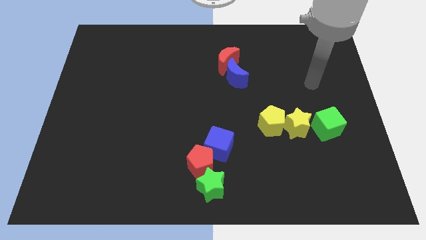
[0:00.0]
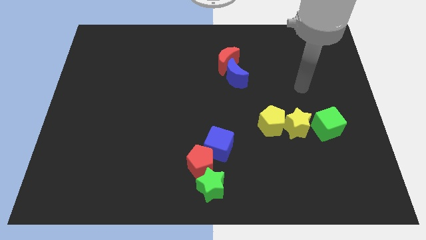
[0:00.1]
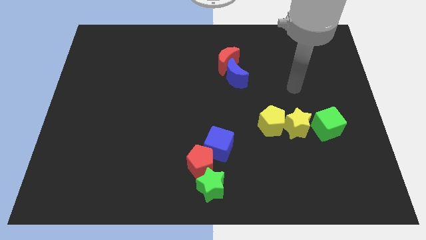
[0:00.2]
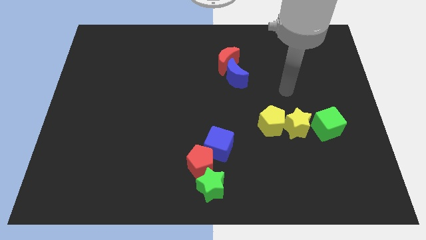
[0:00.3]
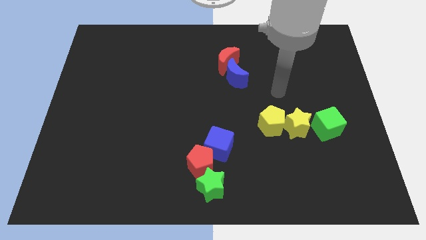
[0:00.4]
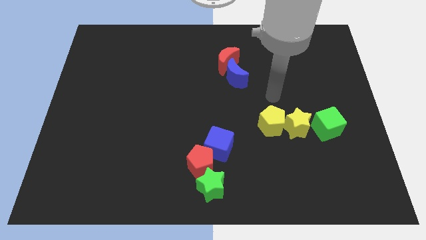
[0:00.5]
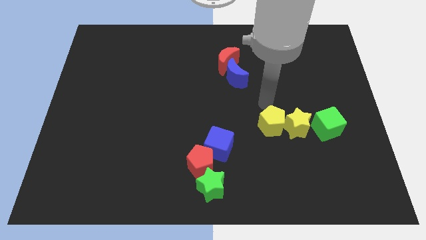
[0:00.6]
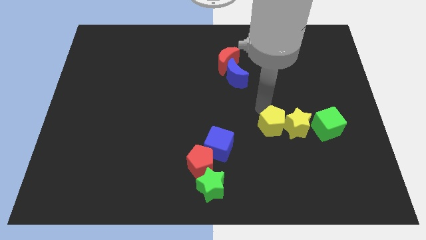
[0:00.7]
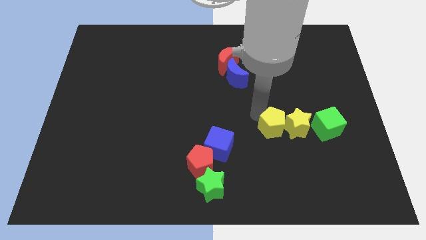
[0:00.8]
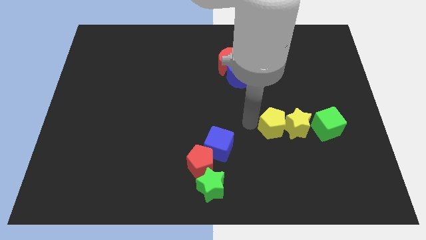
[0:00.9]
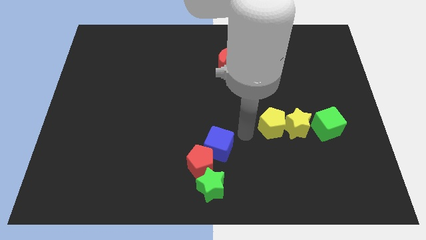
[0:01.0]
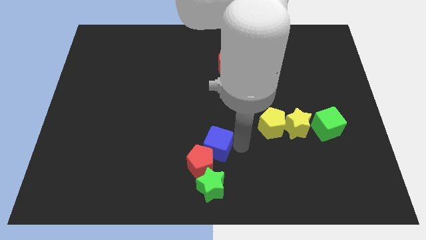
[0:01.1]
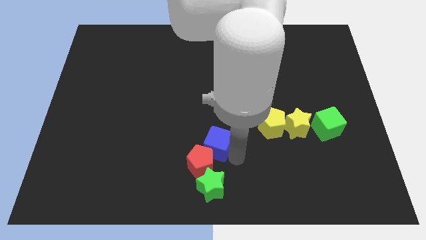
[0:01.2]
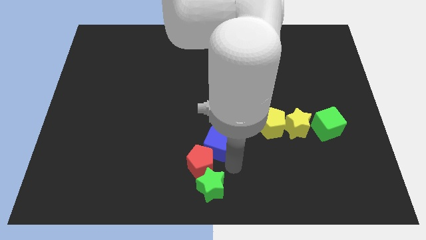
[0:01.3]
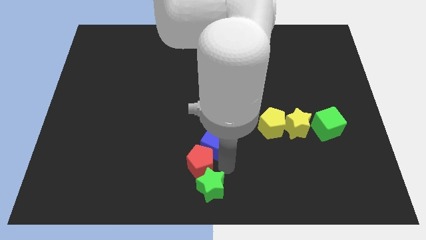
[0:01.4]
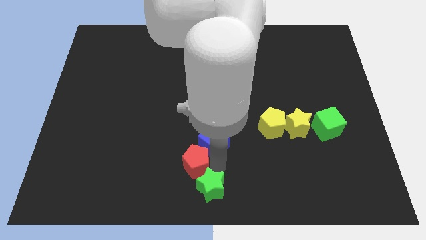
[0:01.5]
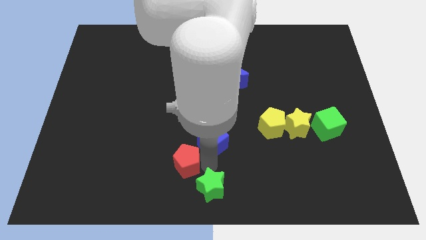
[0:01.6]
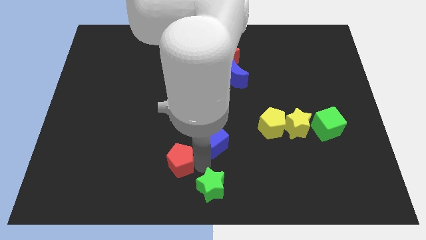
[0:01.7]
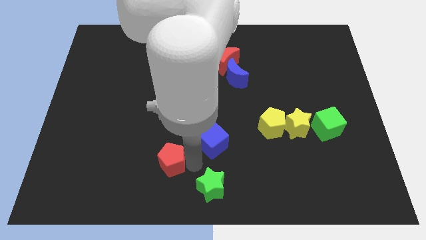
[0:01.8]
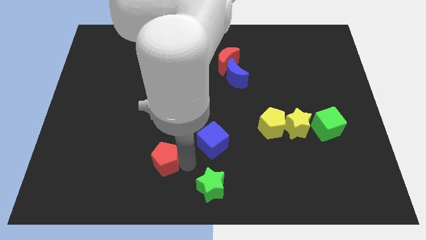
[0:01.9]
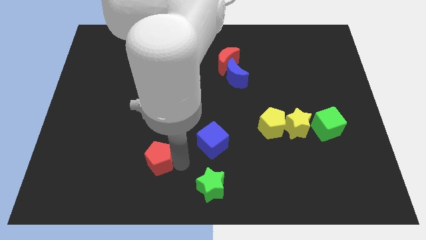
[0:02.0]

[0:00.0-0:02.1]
pull the red pentagon apart from the green star and blue cube

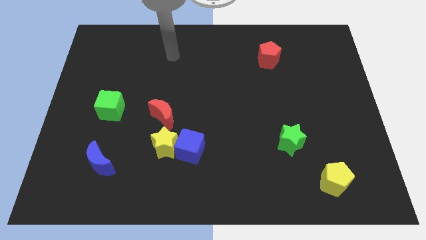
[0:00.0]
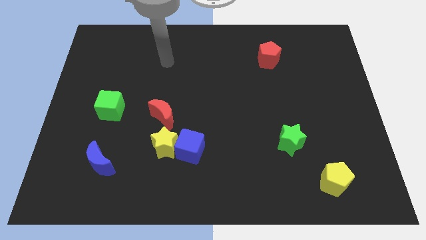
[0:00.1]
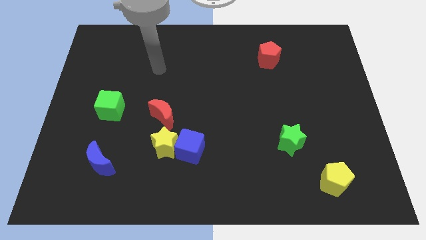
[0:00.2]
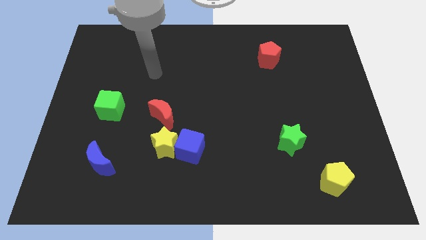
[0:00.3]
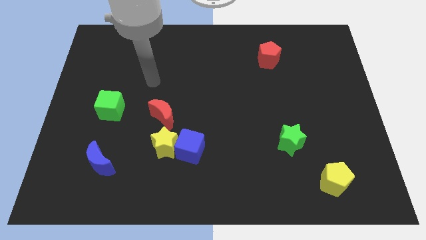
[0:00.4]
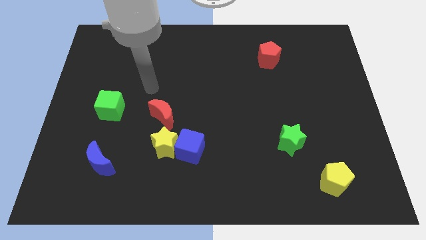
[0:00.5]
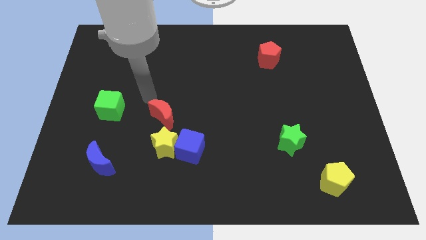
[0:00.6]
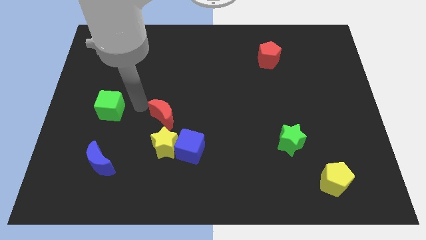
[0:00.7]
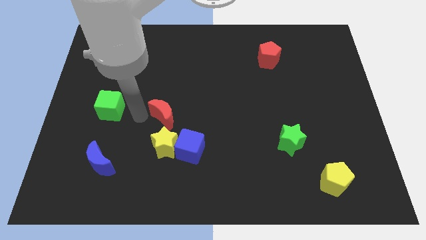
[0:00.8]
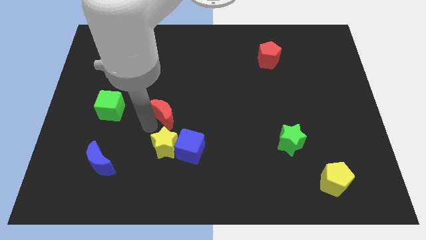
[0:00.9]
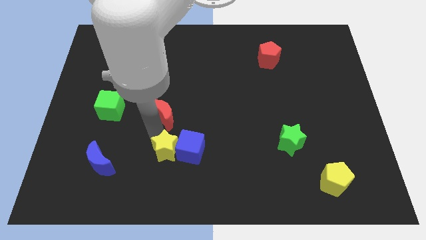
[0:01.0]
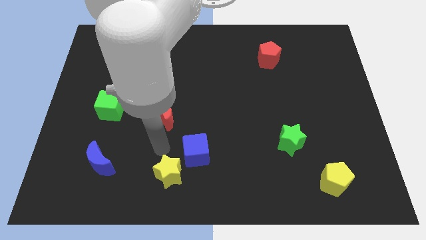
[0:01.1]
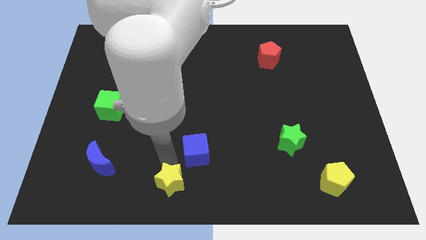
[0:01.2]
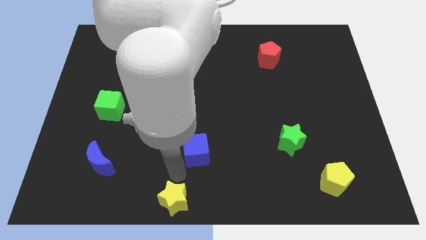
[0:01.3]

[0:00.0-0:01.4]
move the blue cube away from the yellow star

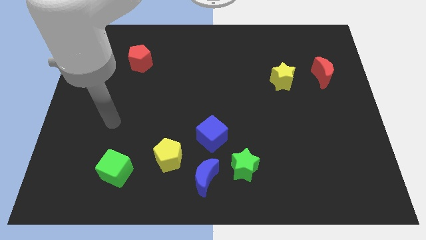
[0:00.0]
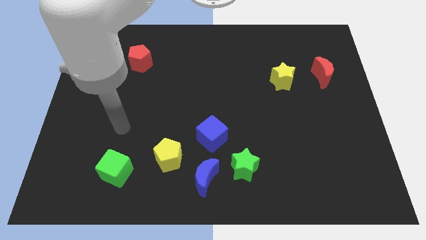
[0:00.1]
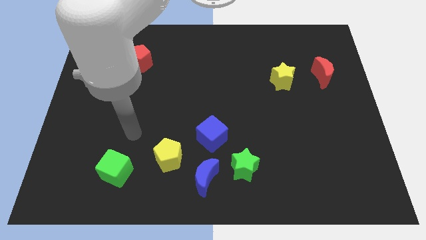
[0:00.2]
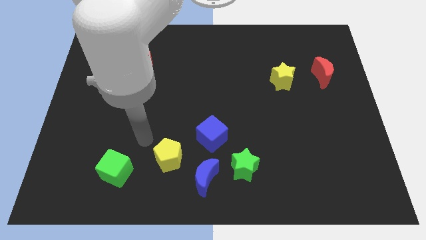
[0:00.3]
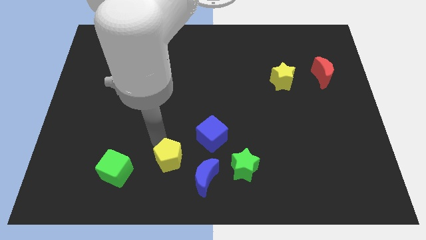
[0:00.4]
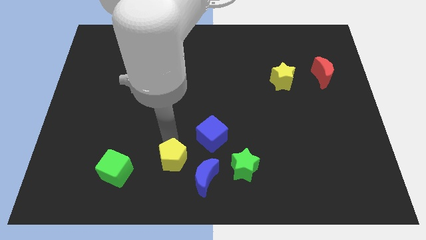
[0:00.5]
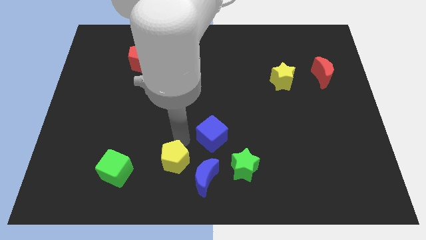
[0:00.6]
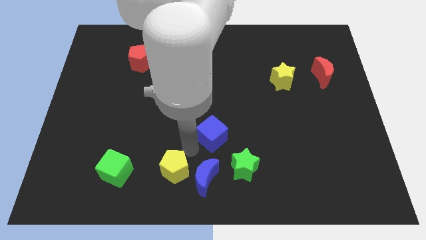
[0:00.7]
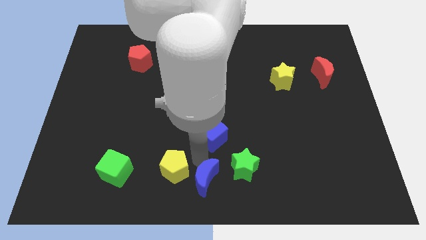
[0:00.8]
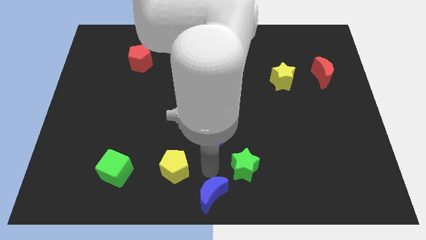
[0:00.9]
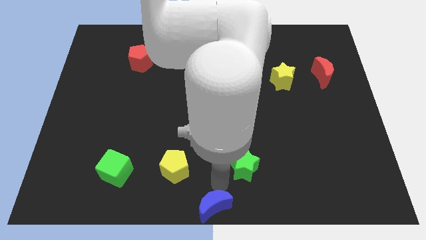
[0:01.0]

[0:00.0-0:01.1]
pull the green star apart from the blue moon

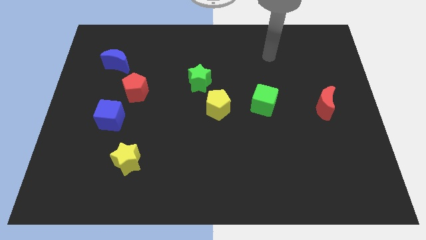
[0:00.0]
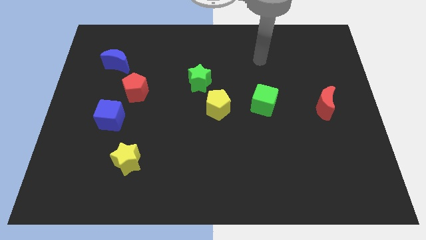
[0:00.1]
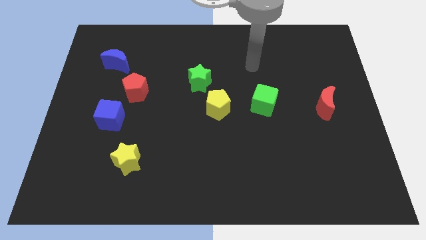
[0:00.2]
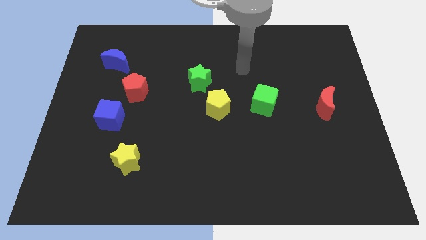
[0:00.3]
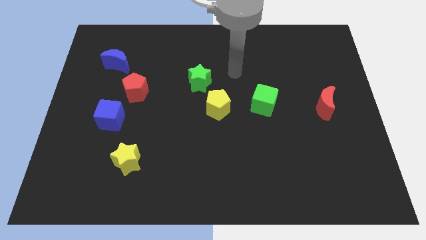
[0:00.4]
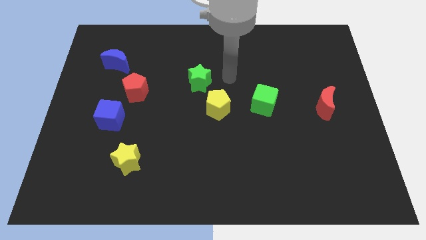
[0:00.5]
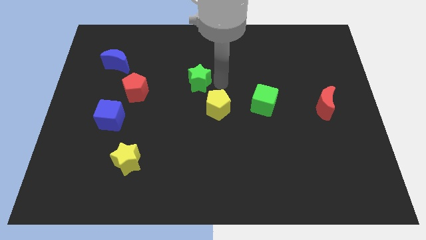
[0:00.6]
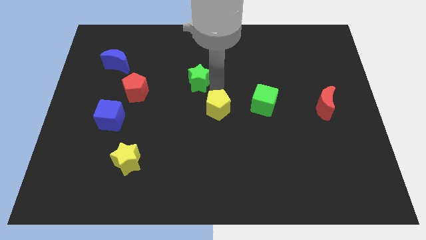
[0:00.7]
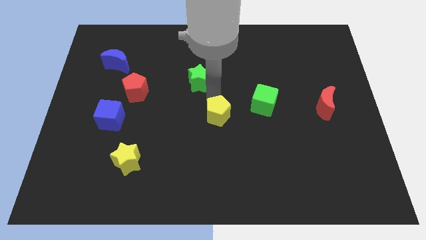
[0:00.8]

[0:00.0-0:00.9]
separate the green star from the yellow pentagon

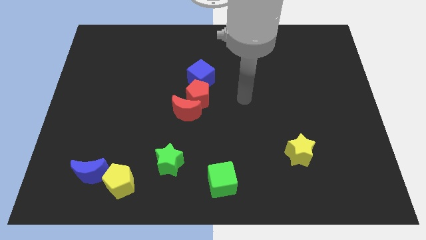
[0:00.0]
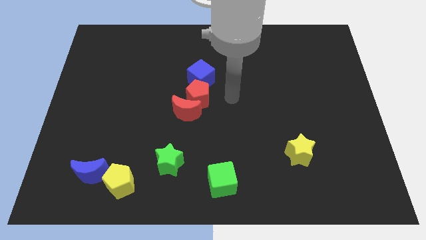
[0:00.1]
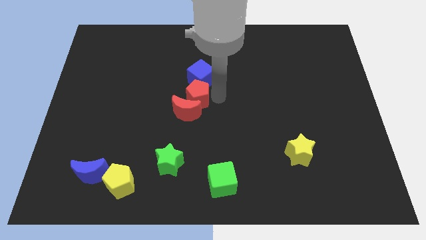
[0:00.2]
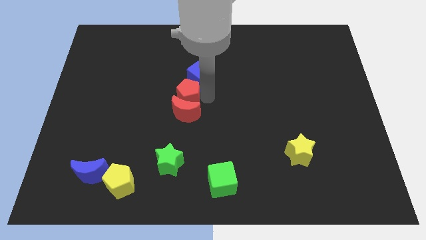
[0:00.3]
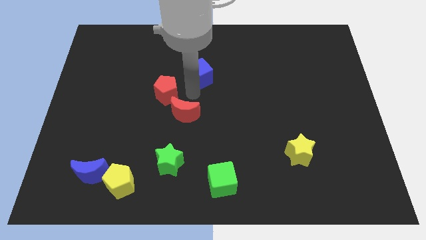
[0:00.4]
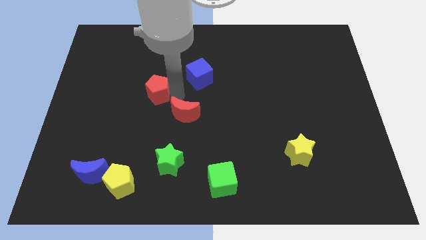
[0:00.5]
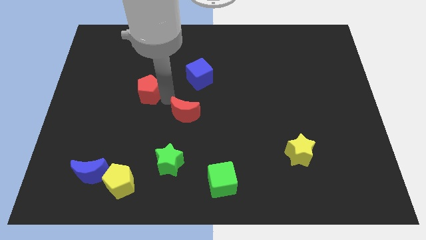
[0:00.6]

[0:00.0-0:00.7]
separate the red moon from the red pentagon

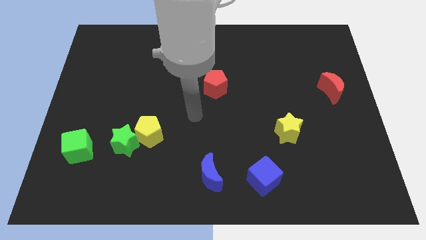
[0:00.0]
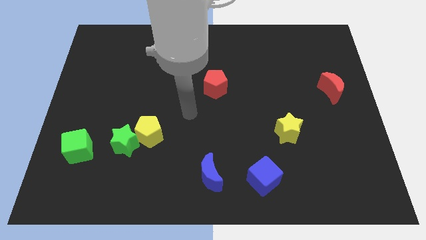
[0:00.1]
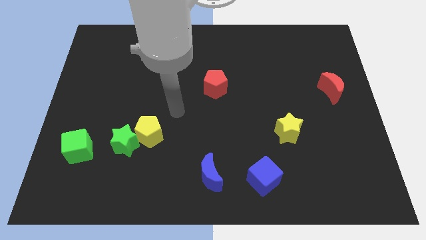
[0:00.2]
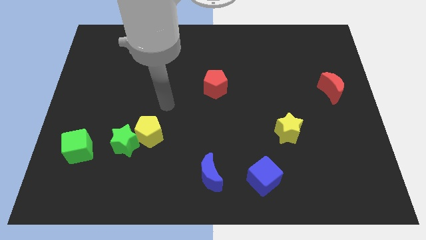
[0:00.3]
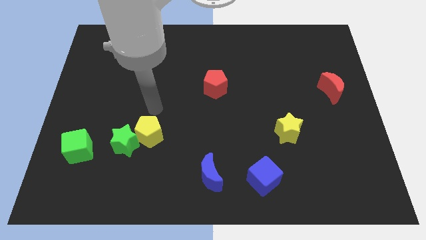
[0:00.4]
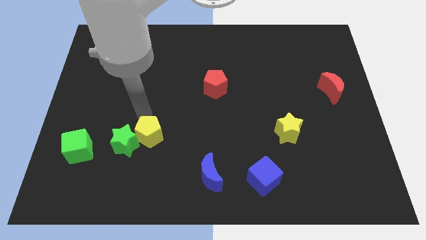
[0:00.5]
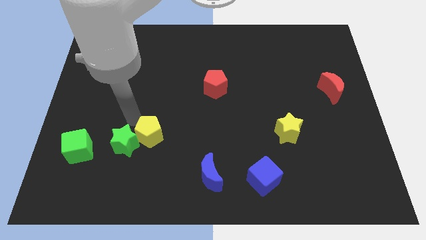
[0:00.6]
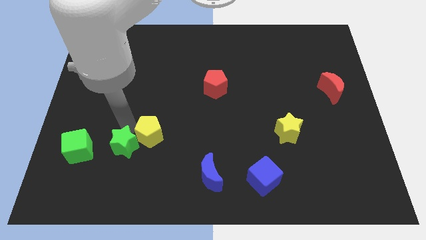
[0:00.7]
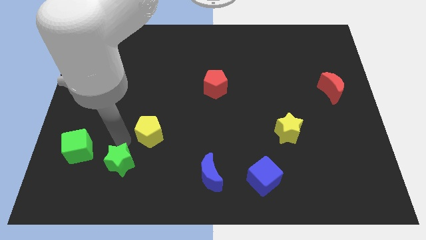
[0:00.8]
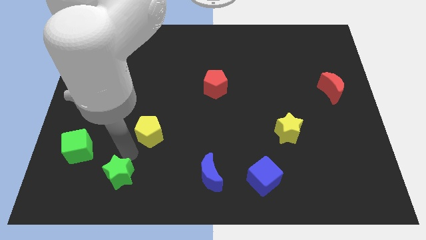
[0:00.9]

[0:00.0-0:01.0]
move the yellow pentagon away from the green star

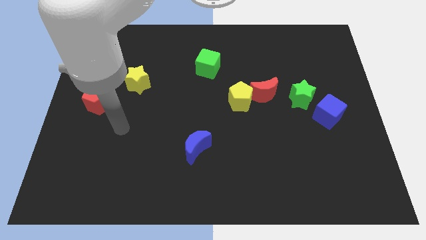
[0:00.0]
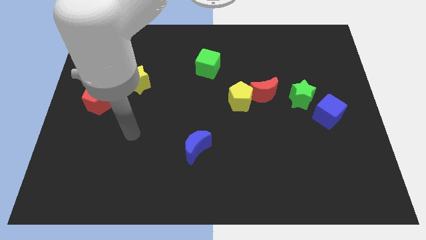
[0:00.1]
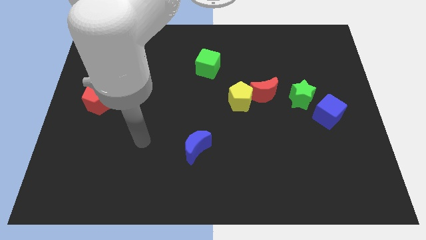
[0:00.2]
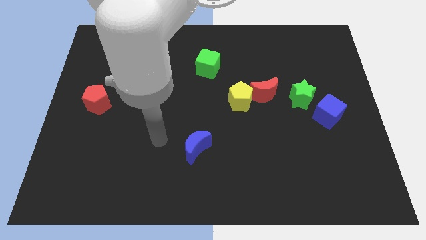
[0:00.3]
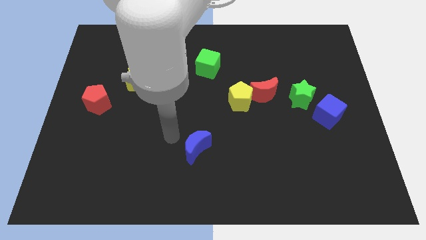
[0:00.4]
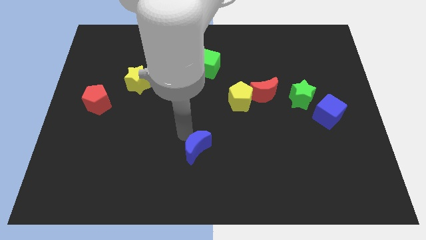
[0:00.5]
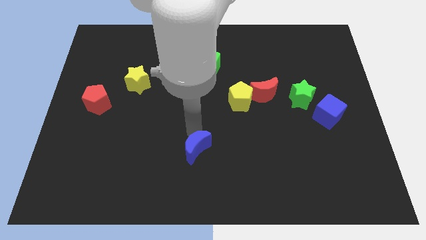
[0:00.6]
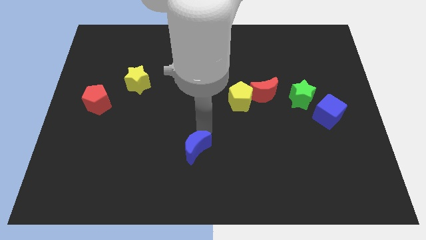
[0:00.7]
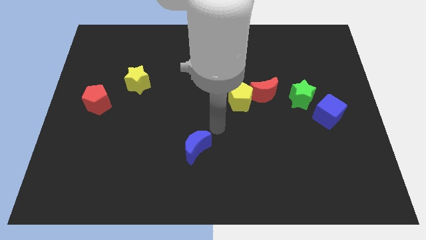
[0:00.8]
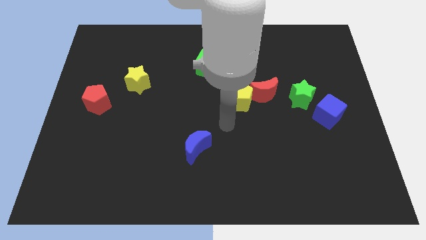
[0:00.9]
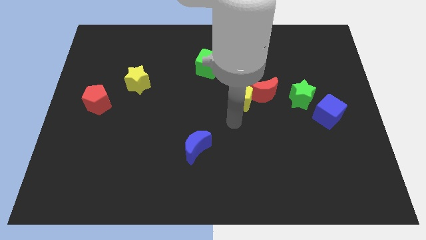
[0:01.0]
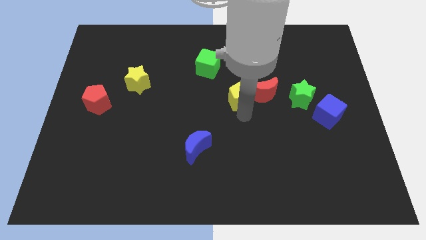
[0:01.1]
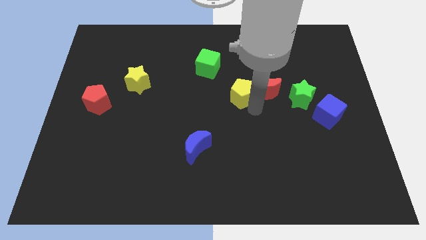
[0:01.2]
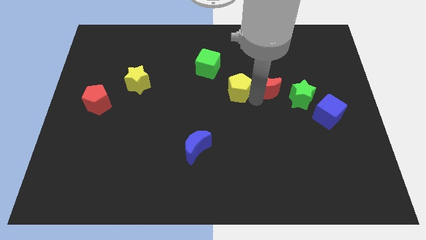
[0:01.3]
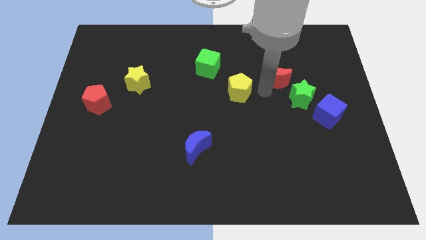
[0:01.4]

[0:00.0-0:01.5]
move the yellow pentagon away from the red moon

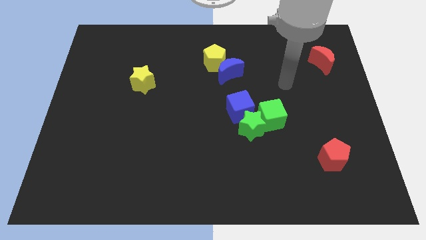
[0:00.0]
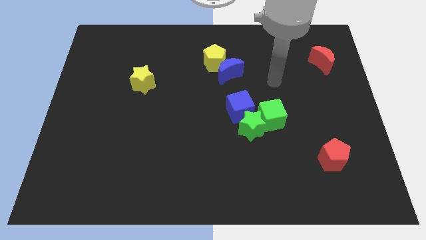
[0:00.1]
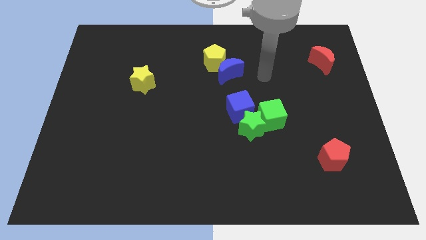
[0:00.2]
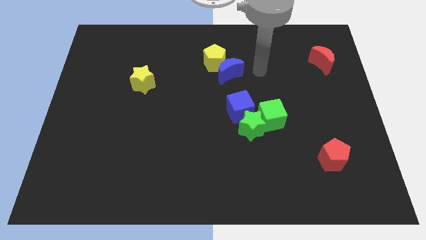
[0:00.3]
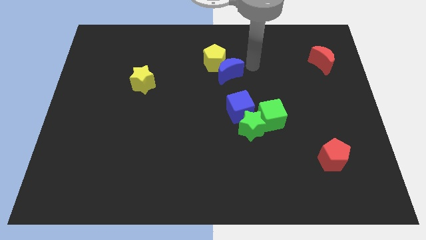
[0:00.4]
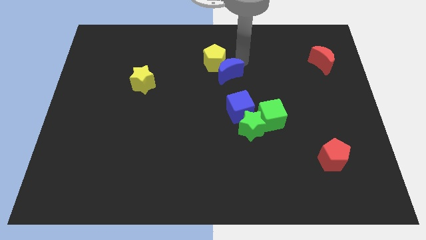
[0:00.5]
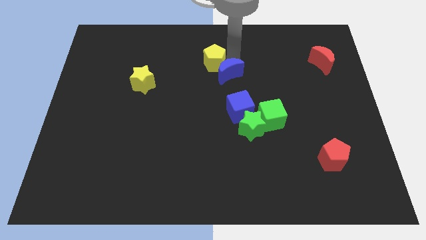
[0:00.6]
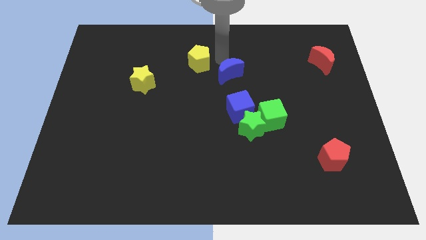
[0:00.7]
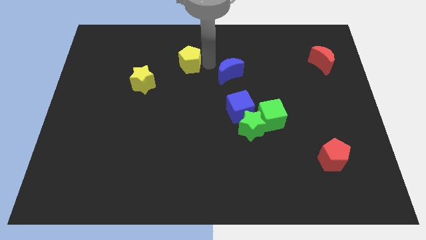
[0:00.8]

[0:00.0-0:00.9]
separate the blue moon from the yellow pentagon
